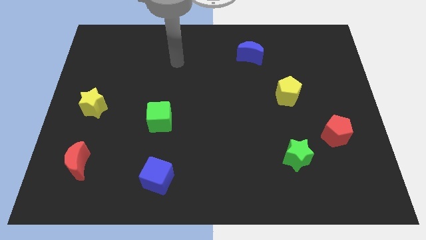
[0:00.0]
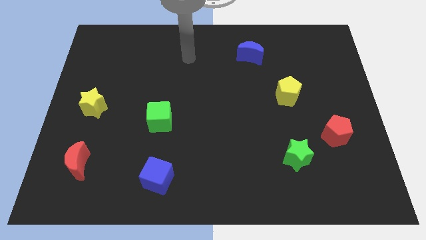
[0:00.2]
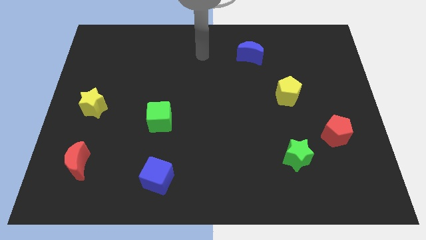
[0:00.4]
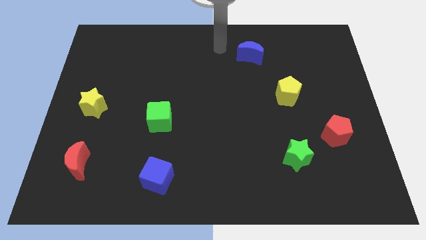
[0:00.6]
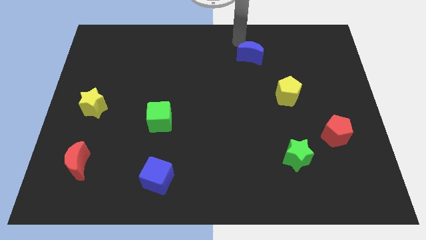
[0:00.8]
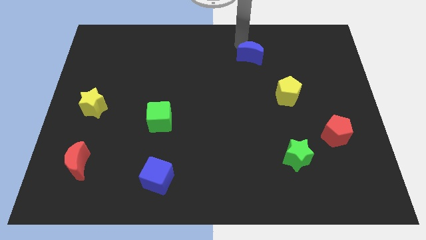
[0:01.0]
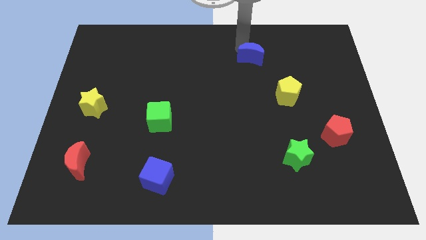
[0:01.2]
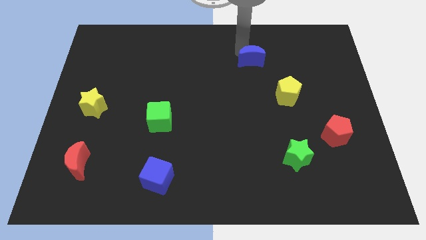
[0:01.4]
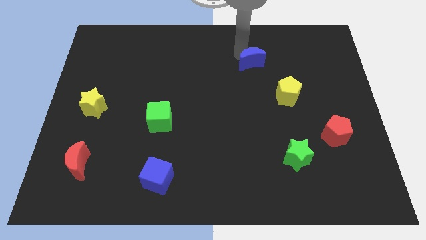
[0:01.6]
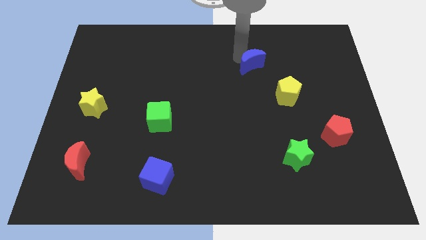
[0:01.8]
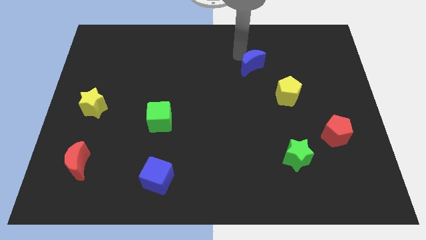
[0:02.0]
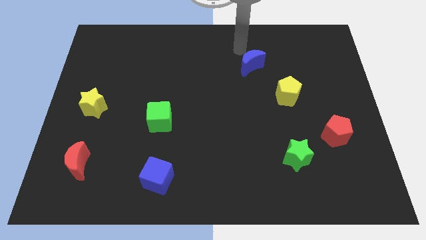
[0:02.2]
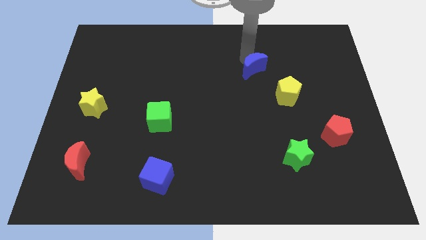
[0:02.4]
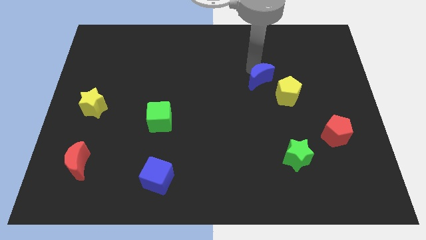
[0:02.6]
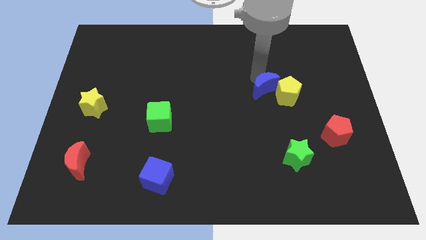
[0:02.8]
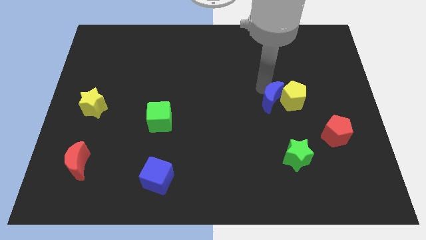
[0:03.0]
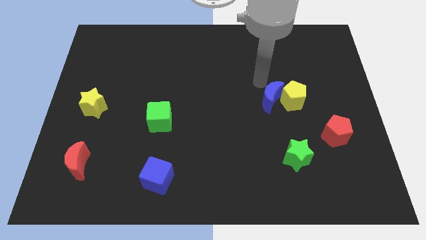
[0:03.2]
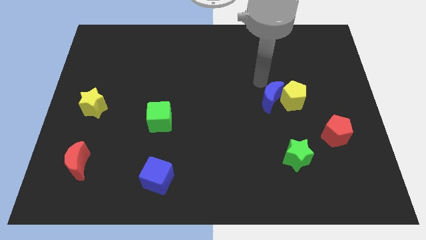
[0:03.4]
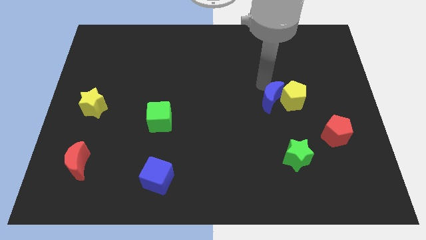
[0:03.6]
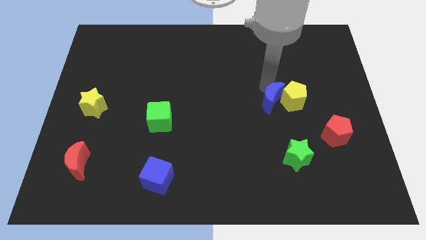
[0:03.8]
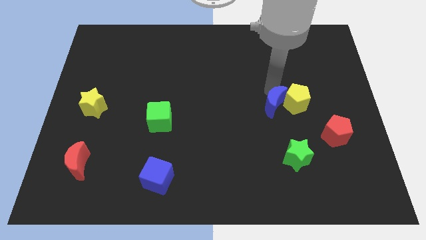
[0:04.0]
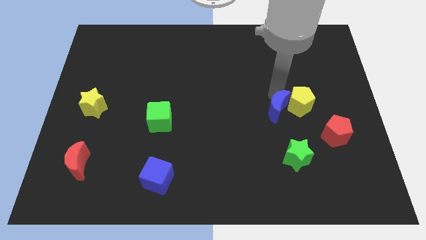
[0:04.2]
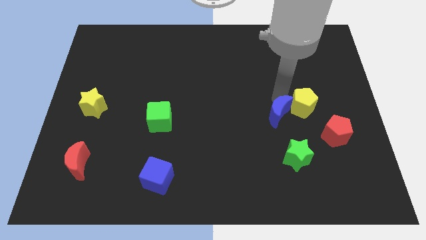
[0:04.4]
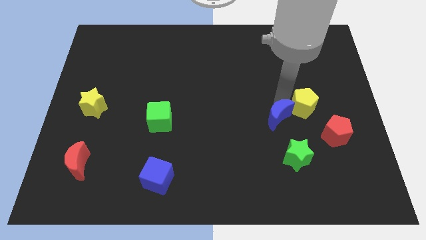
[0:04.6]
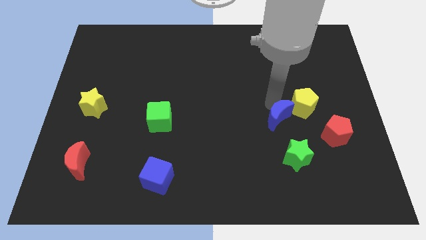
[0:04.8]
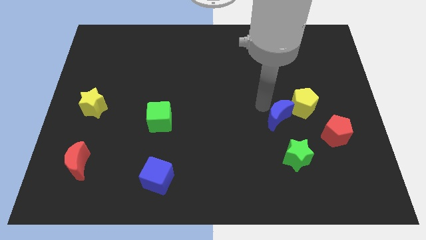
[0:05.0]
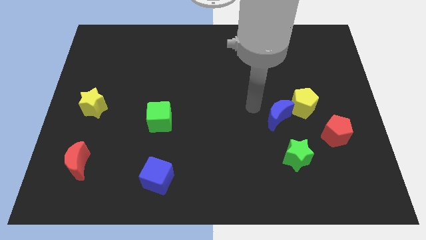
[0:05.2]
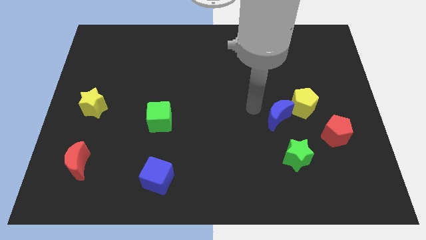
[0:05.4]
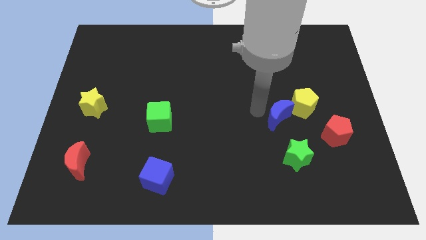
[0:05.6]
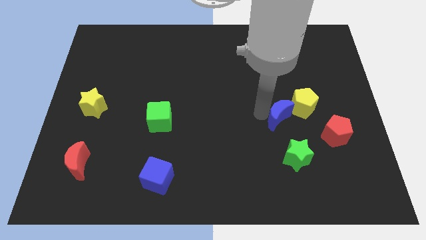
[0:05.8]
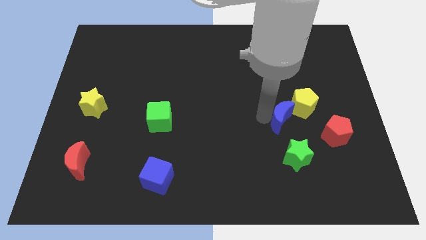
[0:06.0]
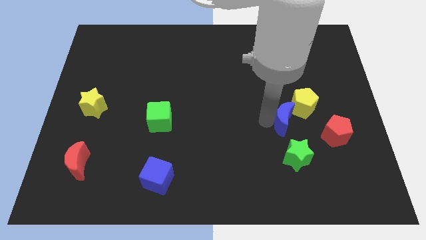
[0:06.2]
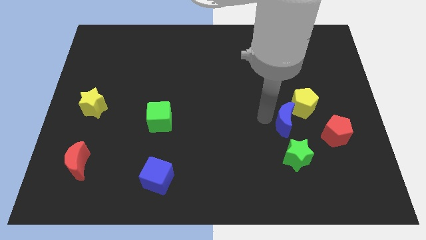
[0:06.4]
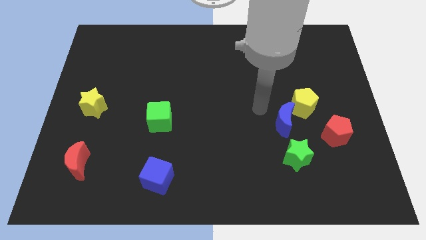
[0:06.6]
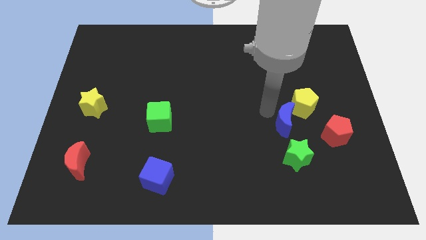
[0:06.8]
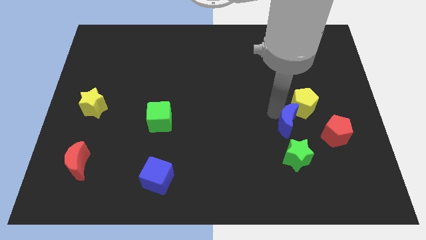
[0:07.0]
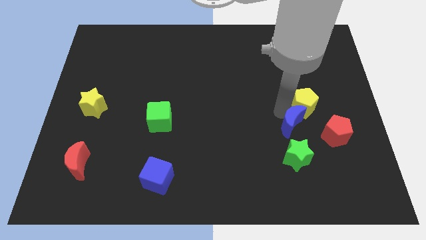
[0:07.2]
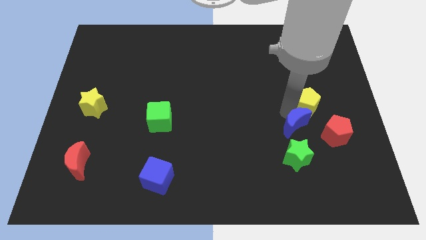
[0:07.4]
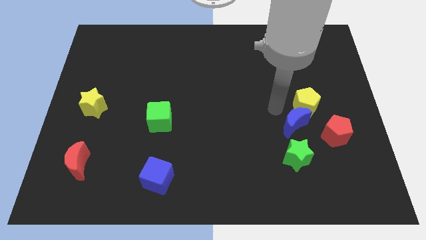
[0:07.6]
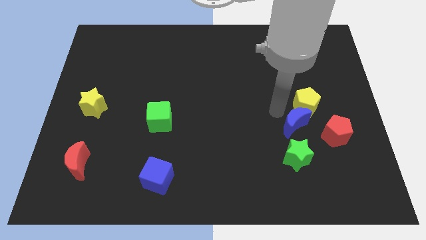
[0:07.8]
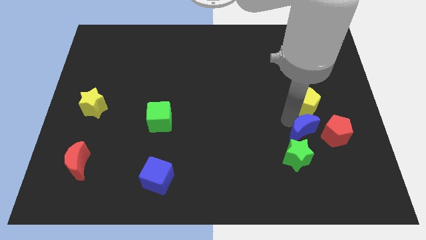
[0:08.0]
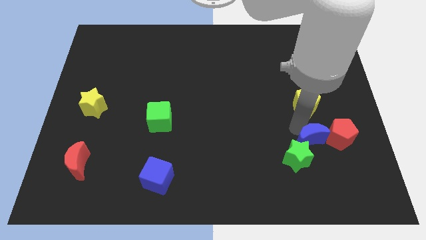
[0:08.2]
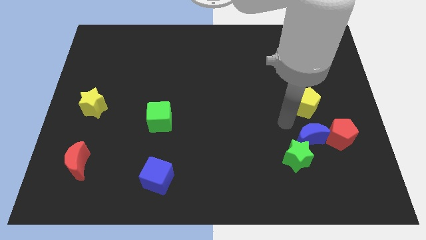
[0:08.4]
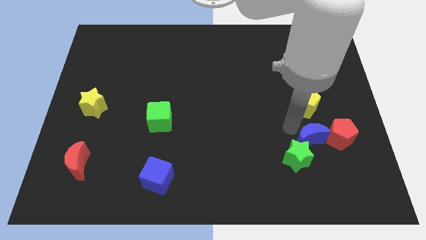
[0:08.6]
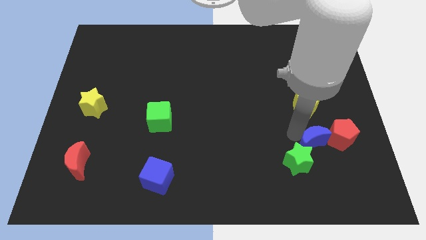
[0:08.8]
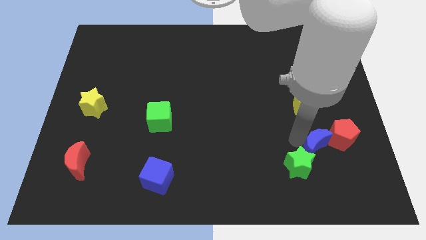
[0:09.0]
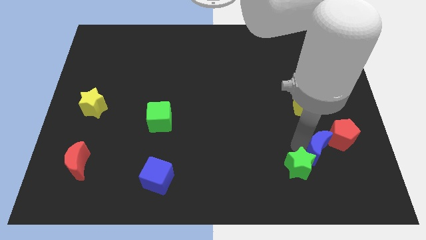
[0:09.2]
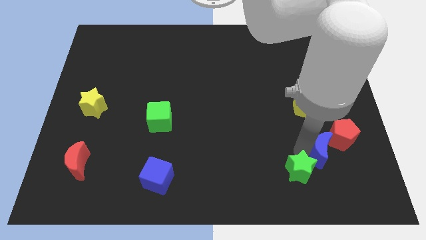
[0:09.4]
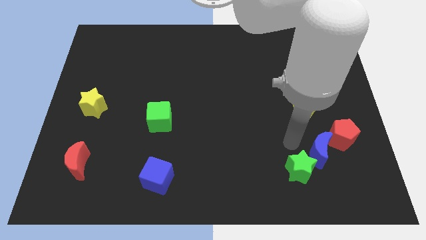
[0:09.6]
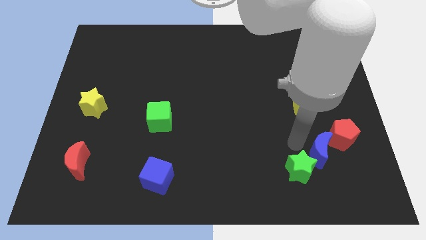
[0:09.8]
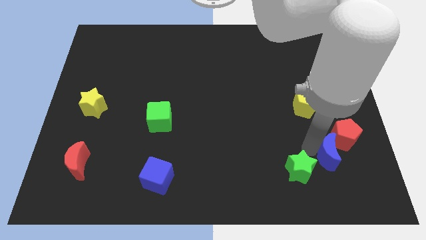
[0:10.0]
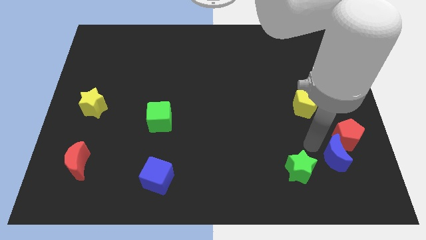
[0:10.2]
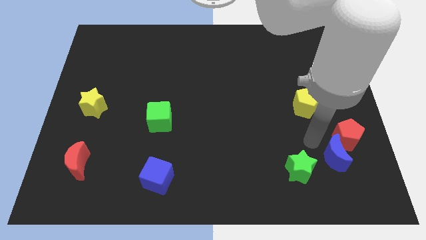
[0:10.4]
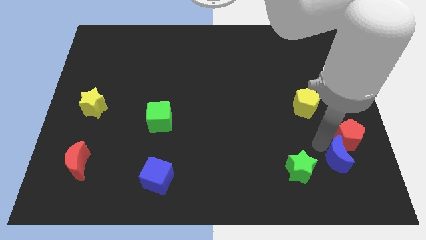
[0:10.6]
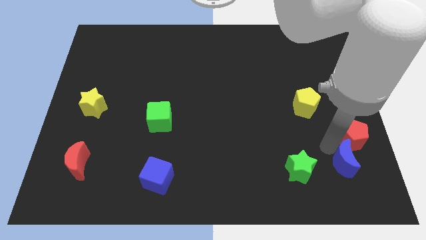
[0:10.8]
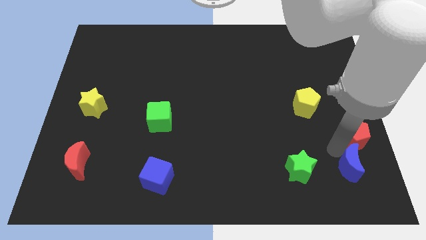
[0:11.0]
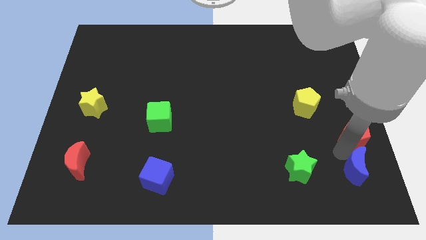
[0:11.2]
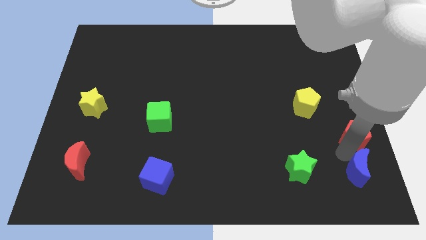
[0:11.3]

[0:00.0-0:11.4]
slide the blue moon to the bottom right corner

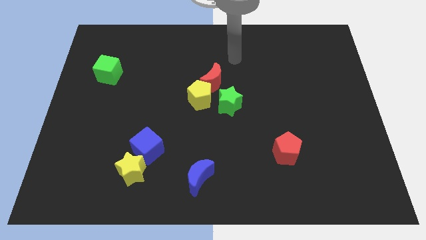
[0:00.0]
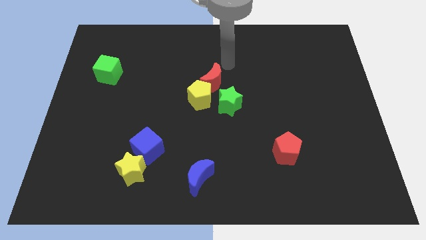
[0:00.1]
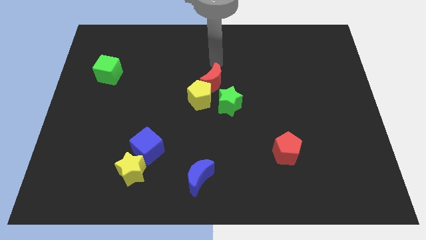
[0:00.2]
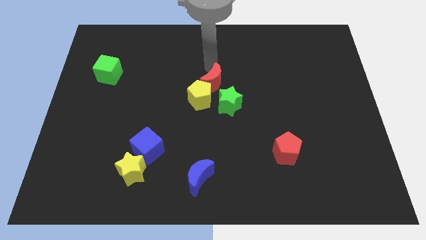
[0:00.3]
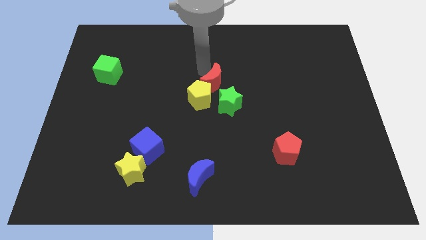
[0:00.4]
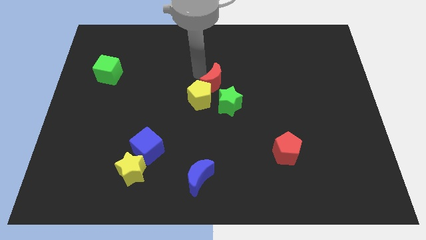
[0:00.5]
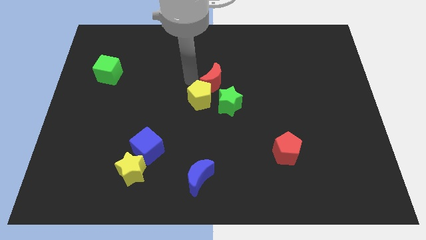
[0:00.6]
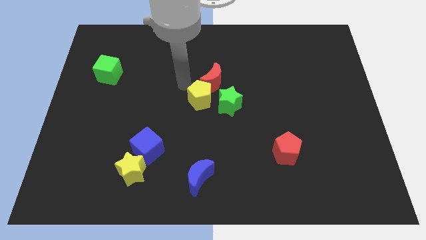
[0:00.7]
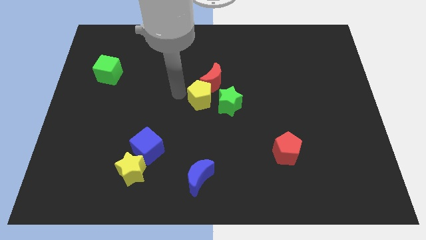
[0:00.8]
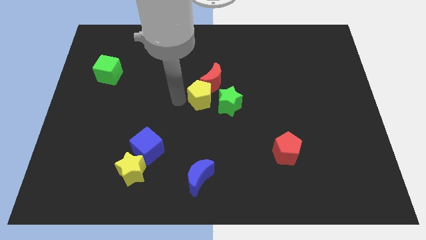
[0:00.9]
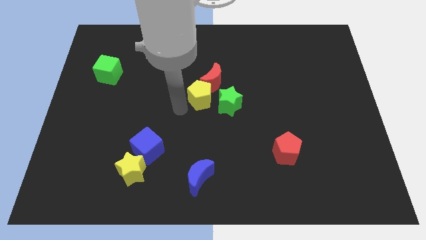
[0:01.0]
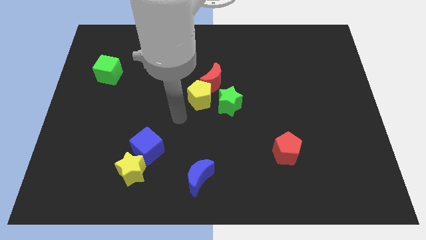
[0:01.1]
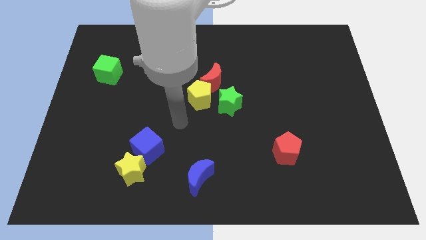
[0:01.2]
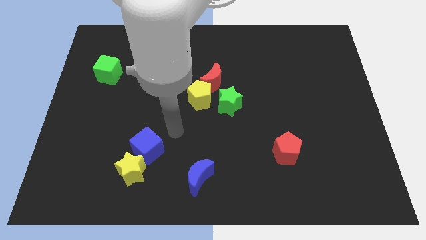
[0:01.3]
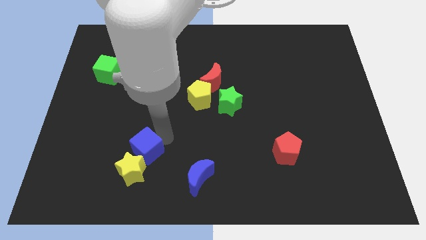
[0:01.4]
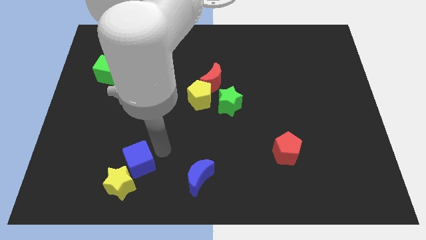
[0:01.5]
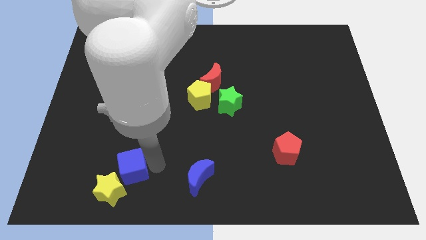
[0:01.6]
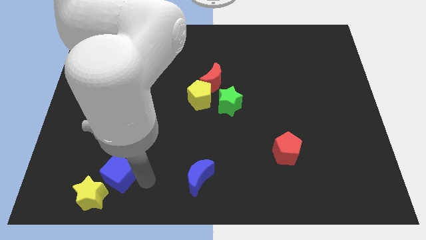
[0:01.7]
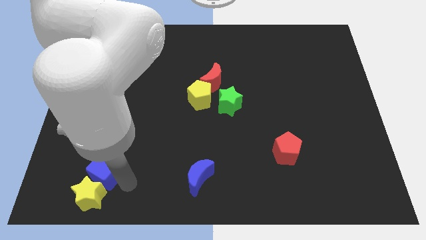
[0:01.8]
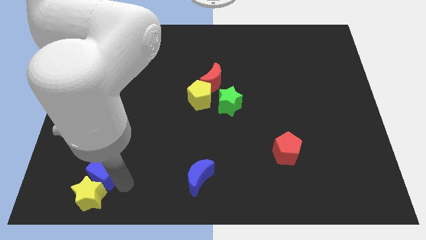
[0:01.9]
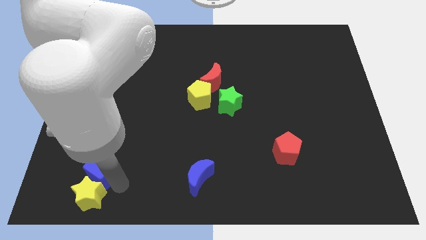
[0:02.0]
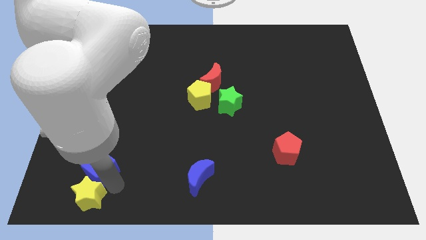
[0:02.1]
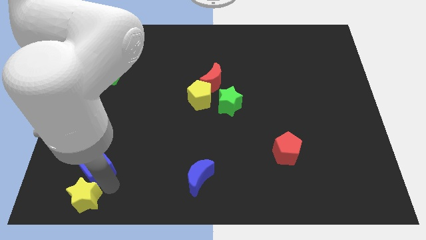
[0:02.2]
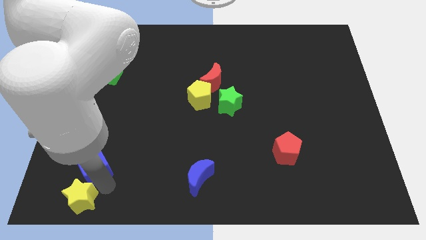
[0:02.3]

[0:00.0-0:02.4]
move the yellow star to the bottom left corner
